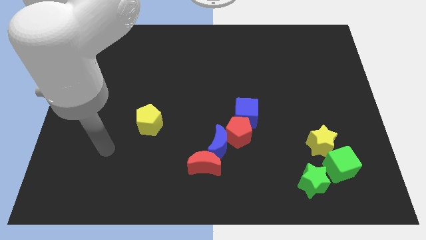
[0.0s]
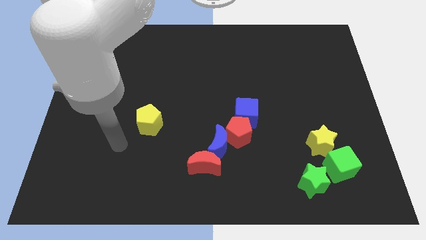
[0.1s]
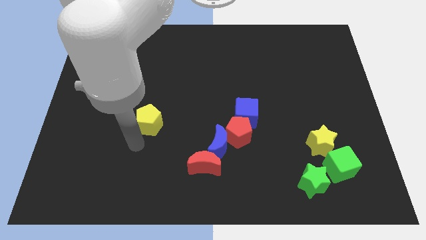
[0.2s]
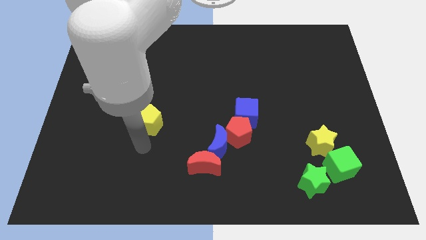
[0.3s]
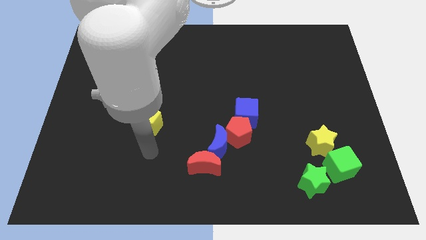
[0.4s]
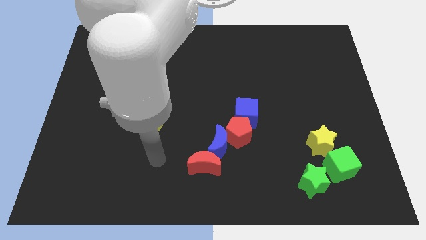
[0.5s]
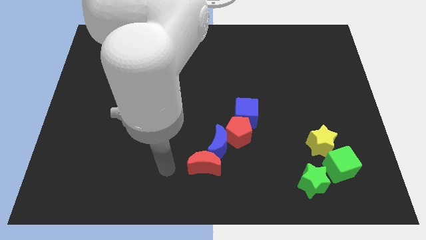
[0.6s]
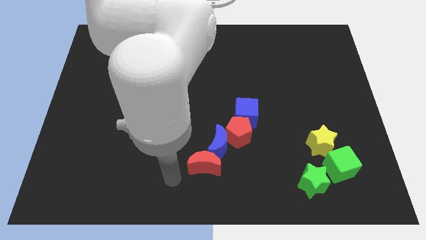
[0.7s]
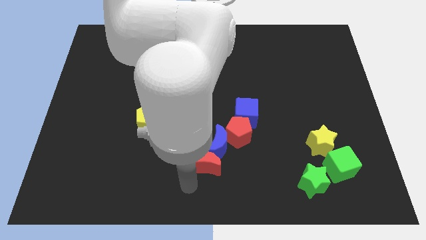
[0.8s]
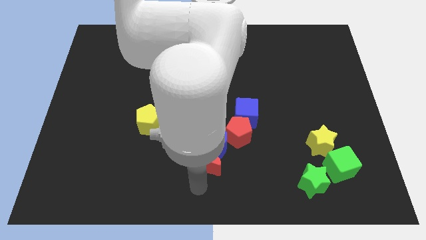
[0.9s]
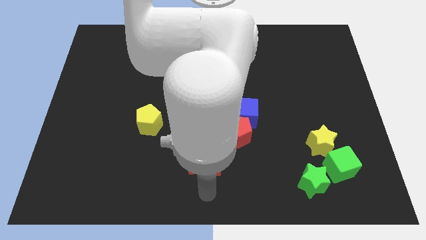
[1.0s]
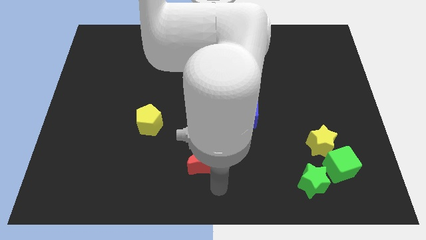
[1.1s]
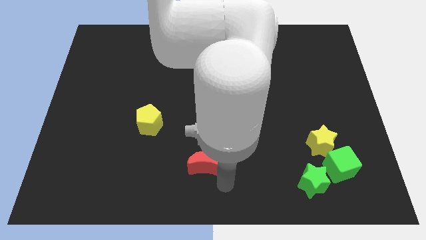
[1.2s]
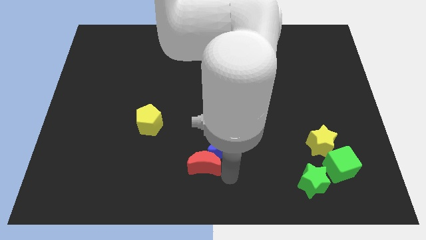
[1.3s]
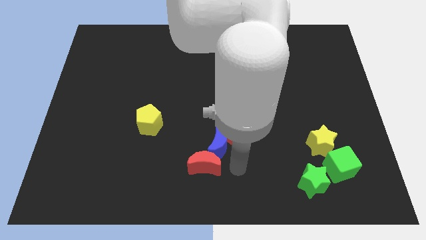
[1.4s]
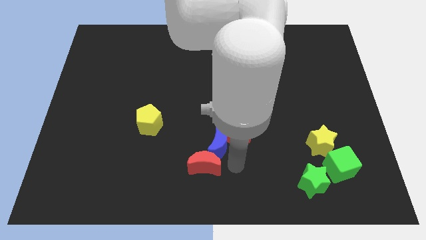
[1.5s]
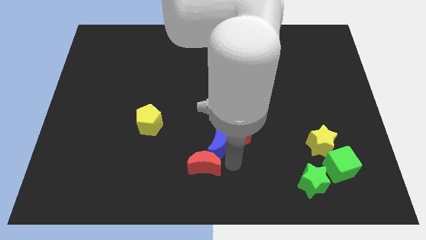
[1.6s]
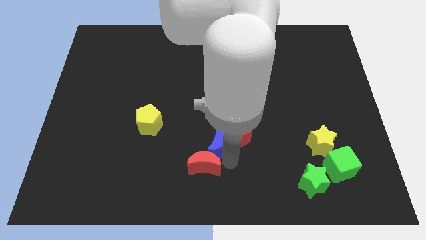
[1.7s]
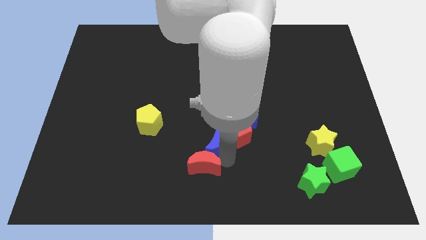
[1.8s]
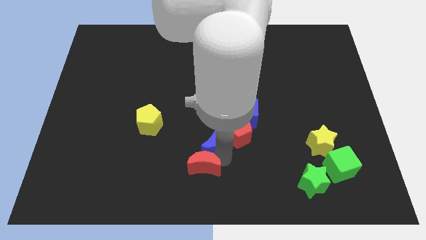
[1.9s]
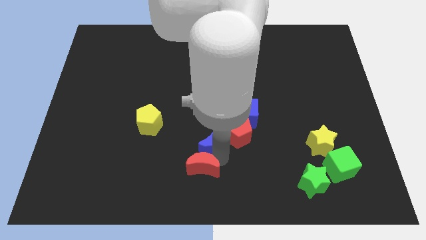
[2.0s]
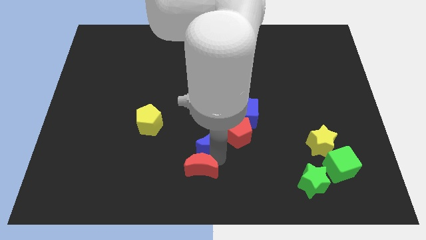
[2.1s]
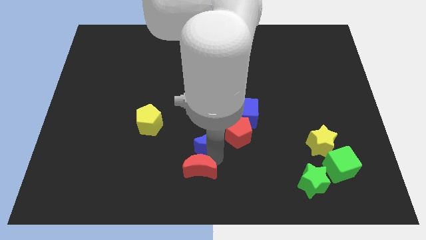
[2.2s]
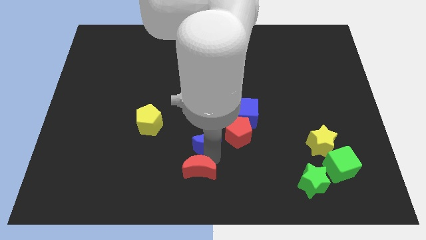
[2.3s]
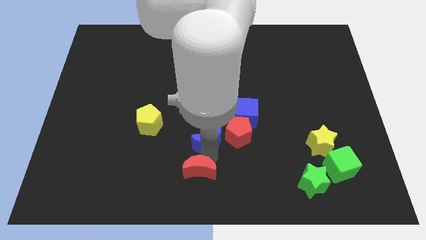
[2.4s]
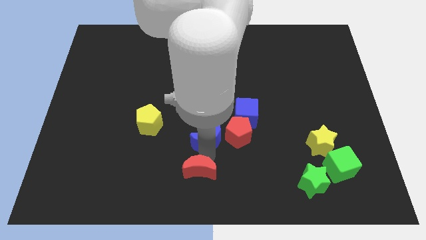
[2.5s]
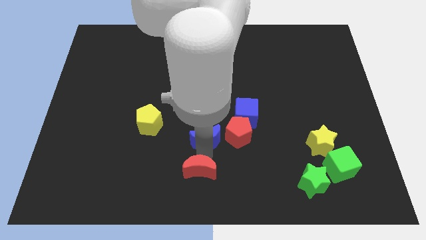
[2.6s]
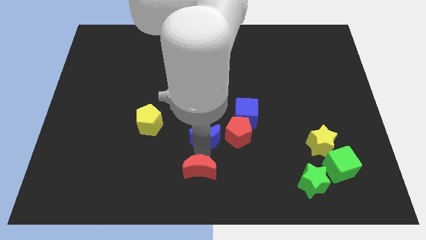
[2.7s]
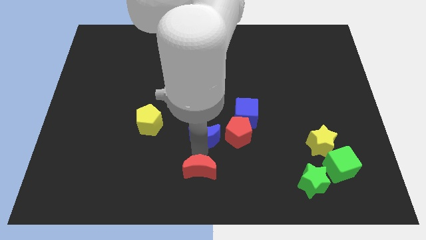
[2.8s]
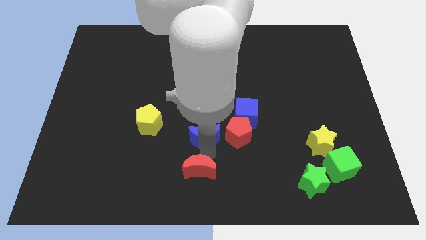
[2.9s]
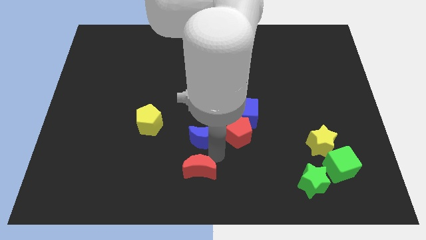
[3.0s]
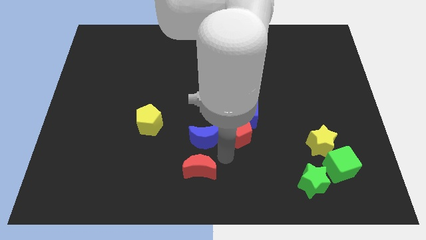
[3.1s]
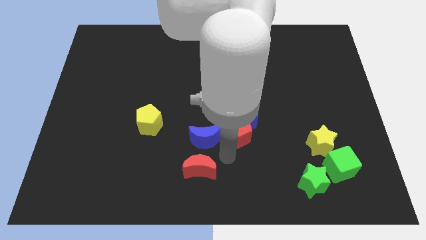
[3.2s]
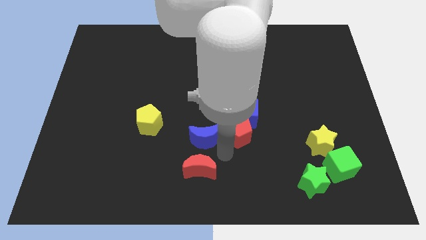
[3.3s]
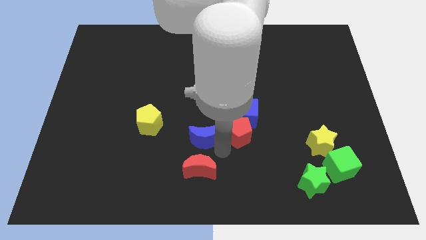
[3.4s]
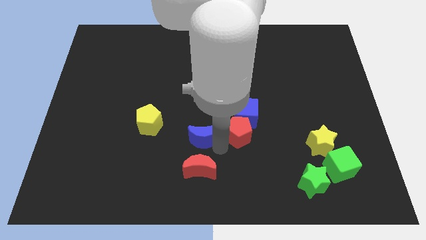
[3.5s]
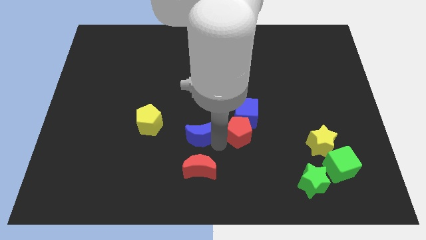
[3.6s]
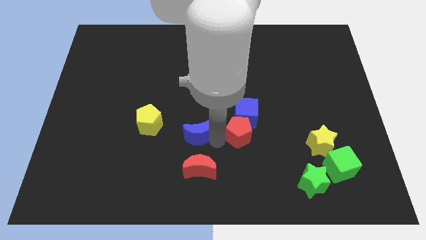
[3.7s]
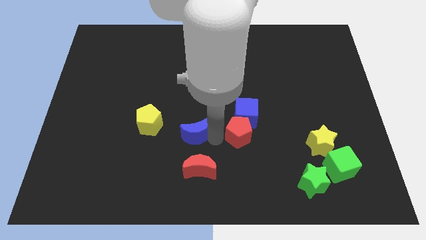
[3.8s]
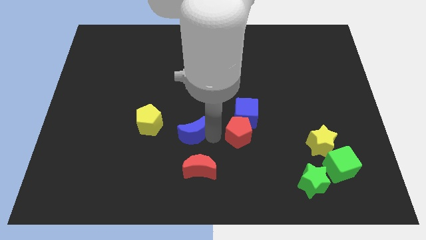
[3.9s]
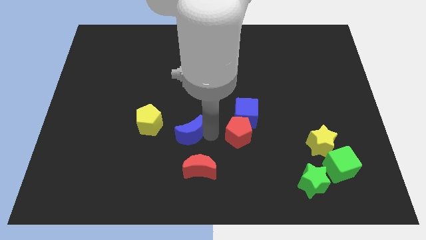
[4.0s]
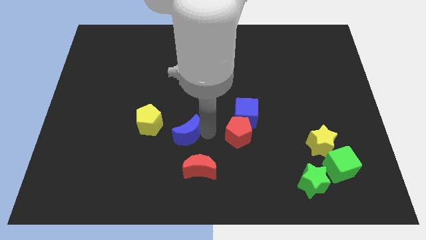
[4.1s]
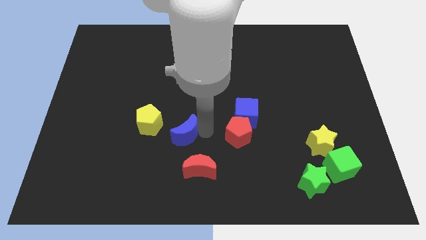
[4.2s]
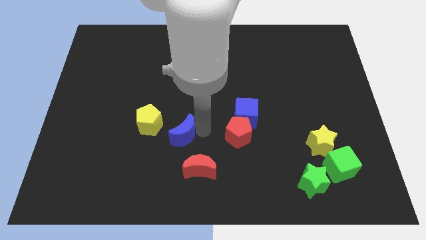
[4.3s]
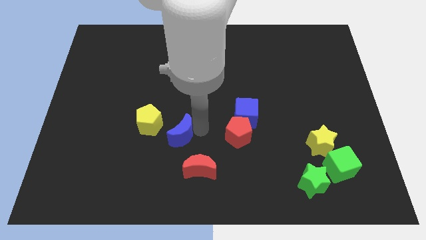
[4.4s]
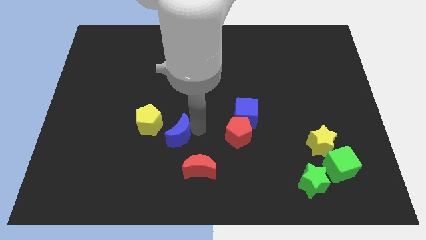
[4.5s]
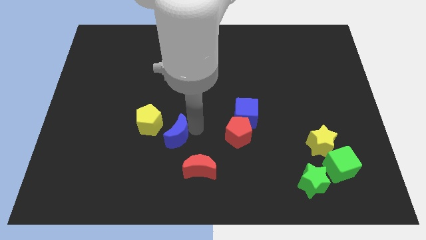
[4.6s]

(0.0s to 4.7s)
move the blue moon away from the red pentagon and red moon

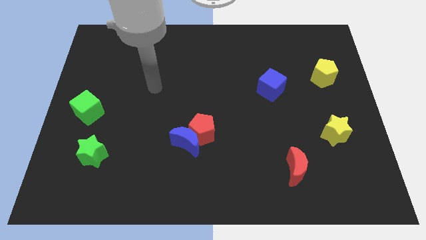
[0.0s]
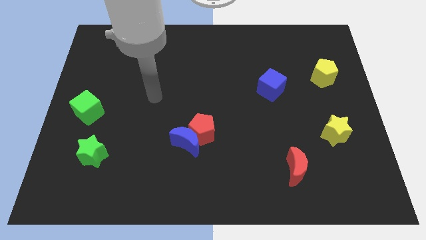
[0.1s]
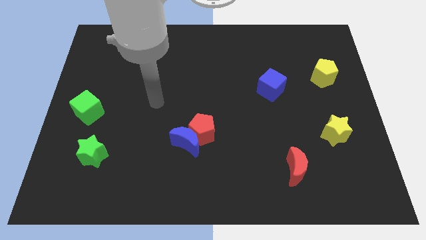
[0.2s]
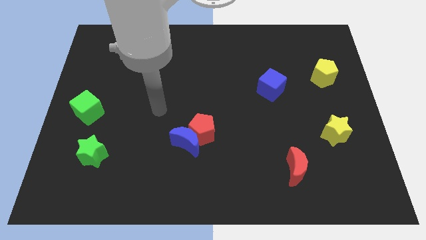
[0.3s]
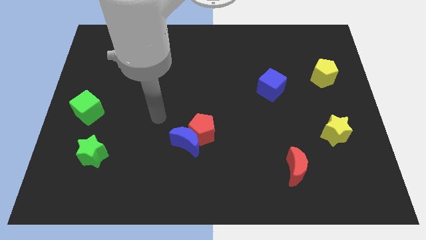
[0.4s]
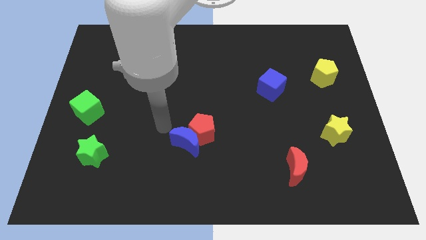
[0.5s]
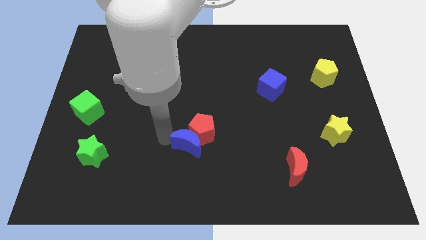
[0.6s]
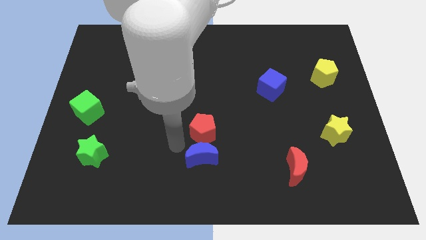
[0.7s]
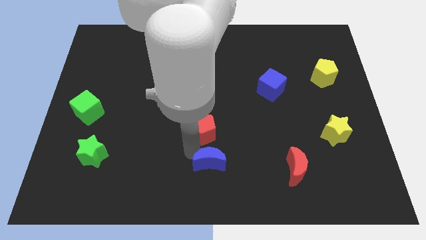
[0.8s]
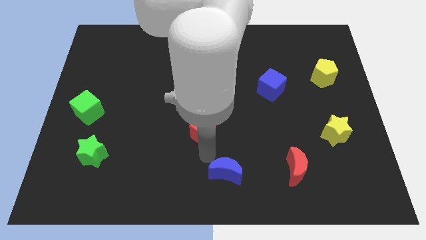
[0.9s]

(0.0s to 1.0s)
pull the red pentagon apart from the blue moon

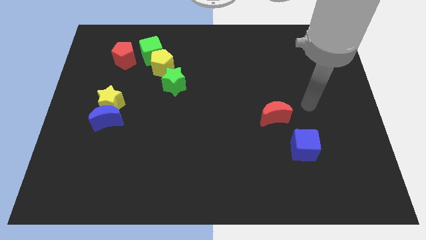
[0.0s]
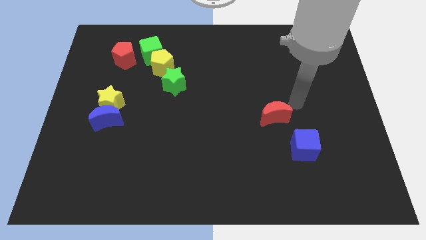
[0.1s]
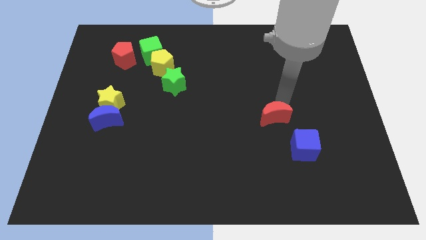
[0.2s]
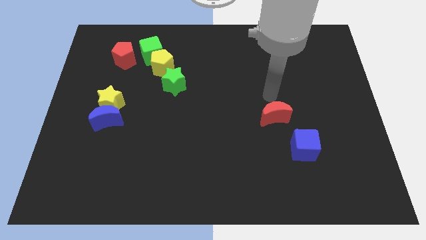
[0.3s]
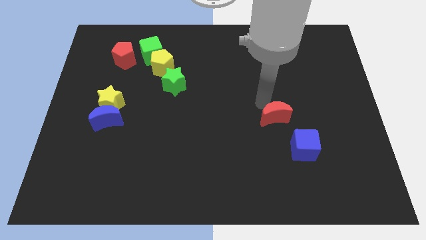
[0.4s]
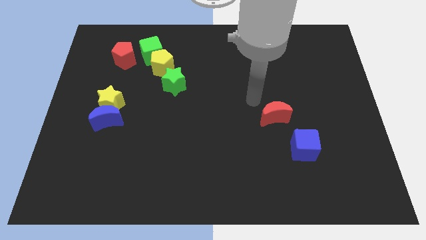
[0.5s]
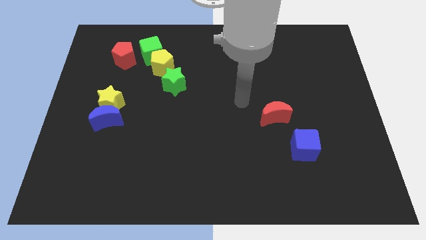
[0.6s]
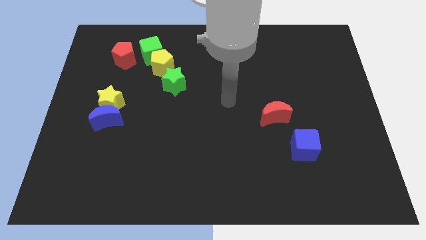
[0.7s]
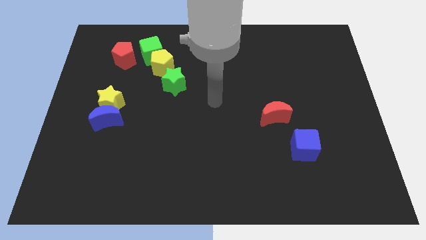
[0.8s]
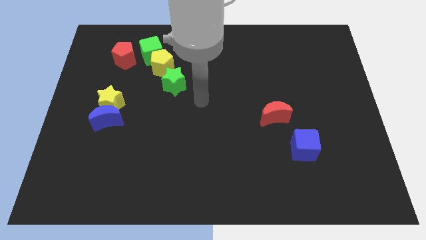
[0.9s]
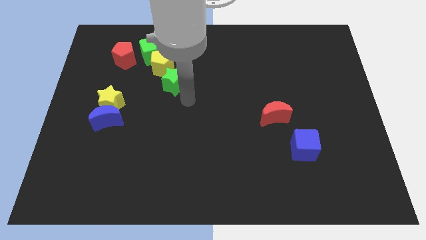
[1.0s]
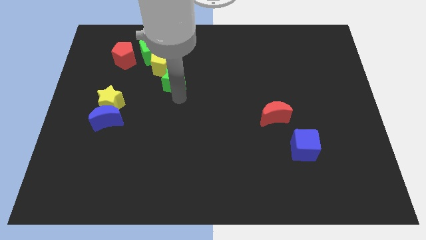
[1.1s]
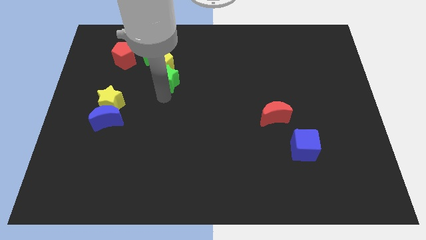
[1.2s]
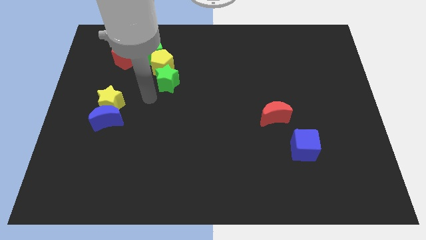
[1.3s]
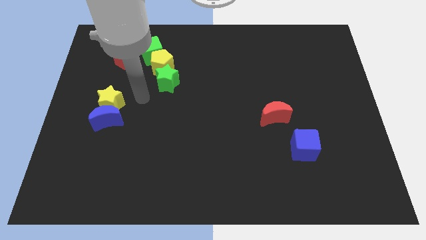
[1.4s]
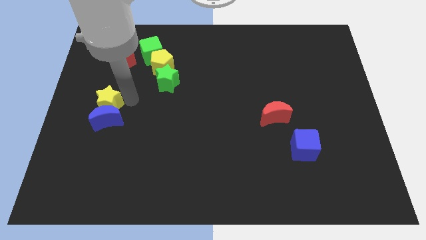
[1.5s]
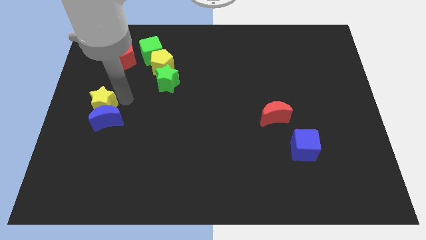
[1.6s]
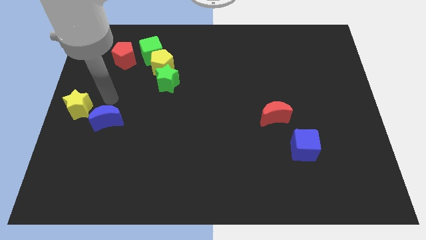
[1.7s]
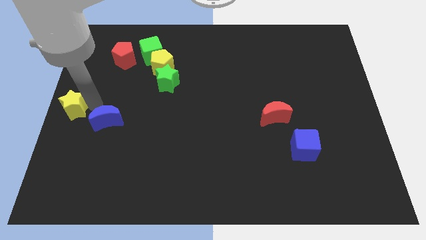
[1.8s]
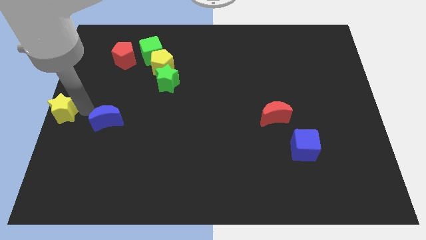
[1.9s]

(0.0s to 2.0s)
move the blue moon away from the yellow star

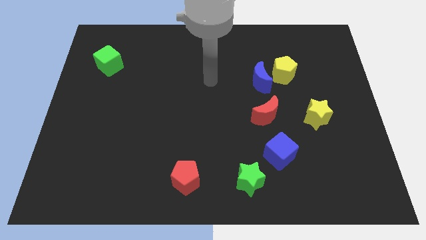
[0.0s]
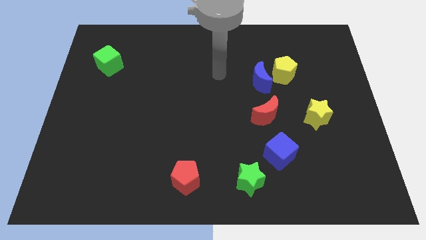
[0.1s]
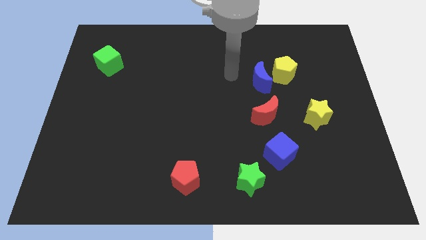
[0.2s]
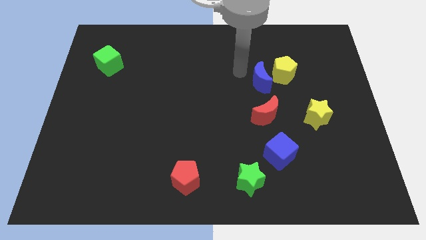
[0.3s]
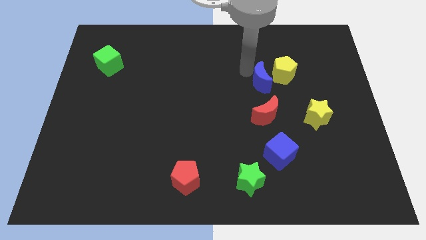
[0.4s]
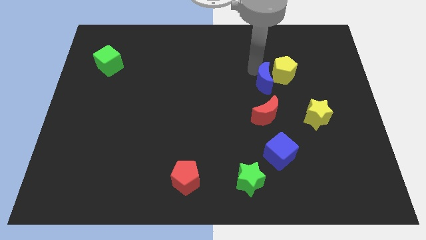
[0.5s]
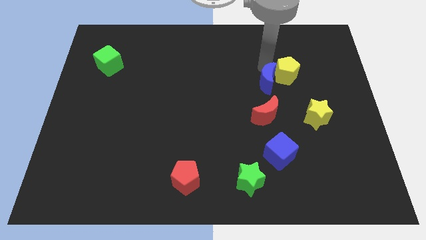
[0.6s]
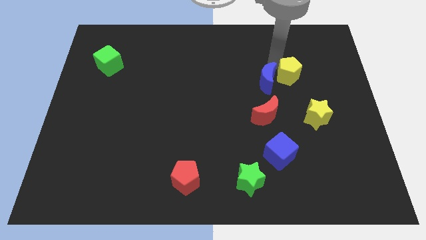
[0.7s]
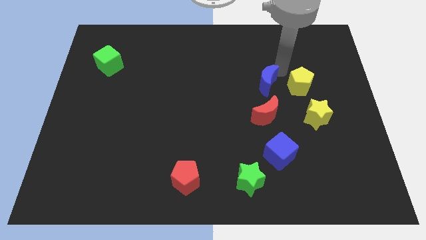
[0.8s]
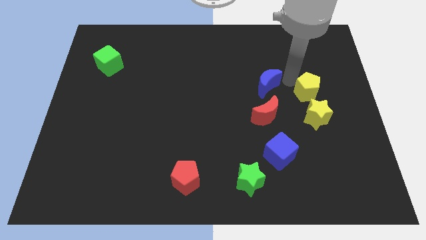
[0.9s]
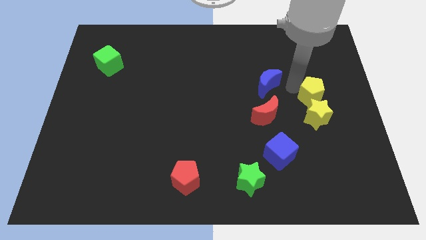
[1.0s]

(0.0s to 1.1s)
move the blue moon away from the yellow pentagon

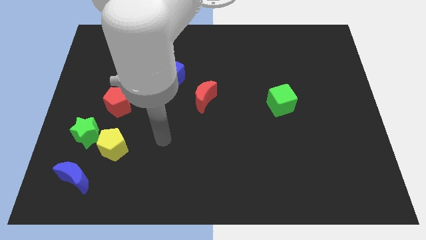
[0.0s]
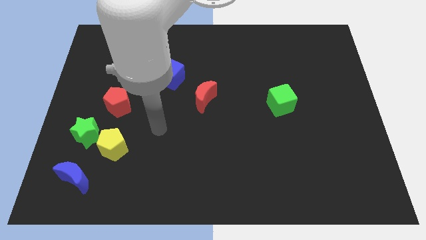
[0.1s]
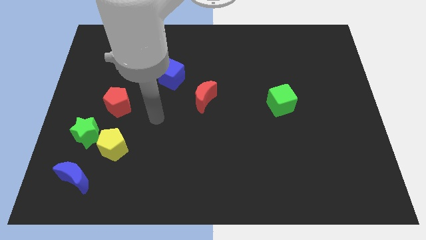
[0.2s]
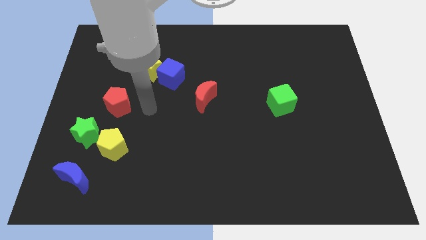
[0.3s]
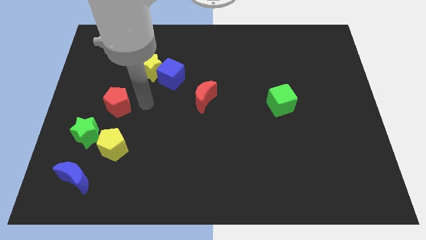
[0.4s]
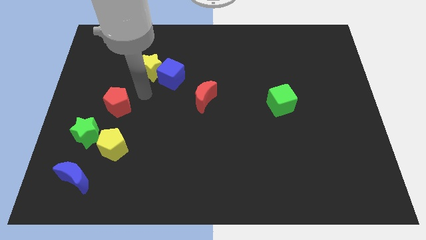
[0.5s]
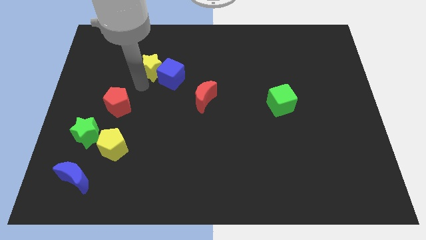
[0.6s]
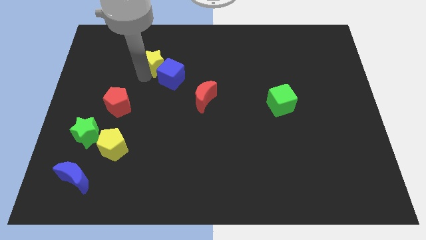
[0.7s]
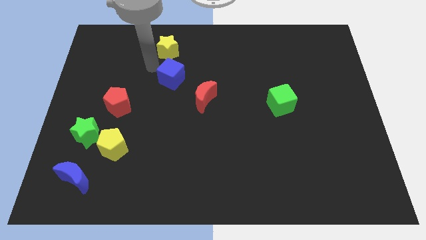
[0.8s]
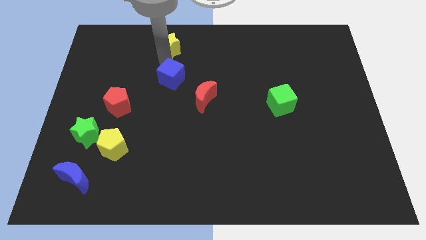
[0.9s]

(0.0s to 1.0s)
separate the blue cube from the yellow star
